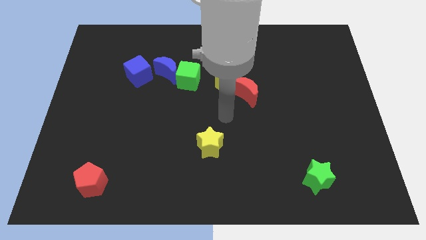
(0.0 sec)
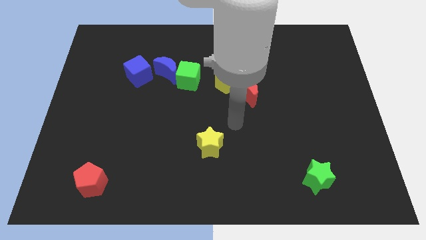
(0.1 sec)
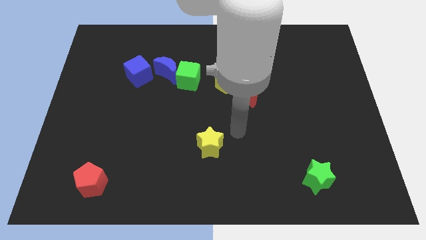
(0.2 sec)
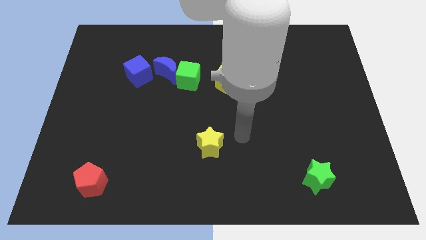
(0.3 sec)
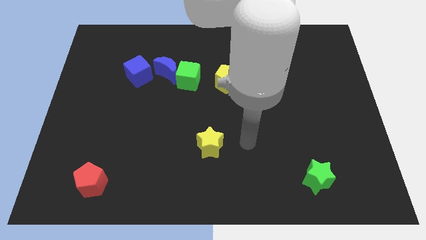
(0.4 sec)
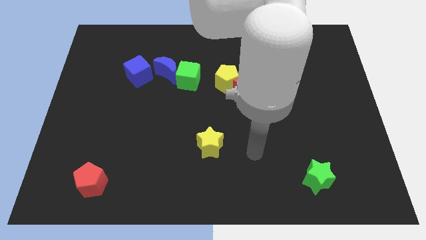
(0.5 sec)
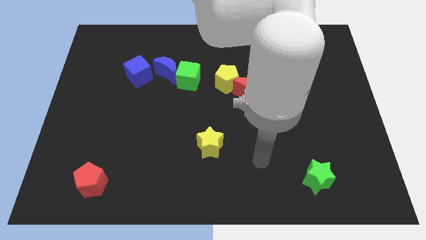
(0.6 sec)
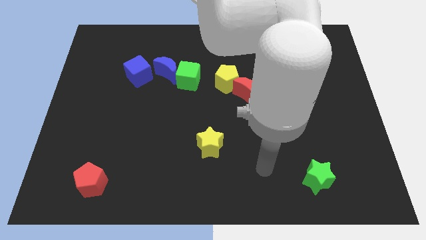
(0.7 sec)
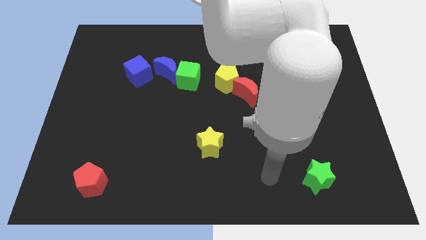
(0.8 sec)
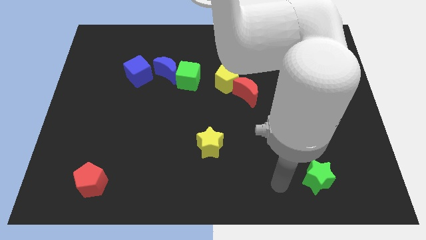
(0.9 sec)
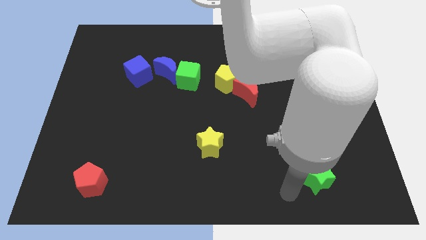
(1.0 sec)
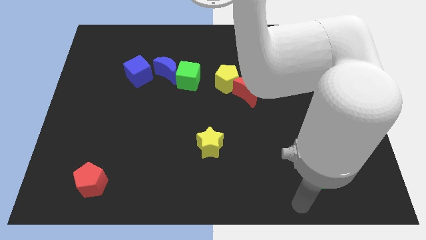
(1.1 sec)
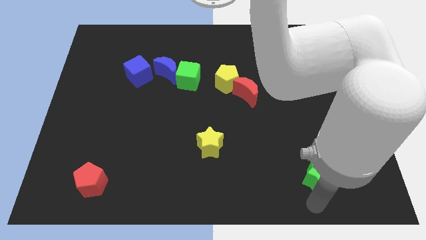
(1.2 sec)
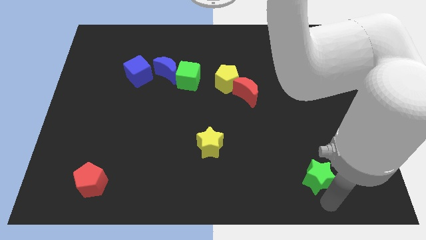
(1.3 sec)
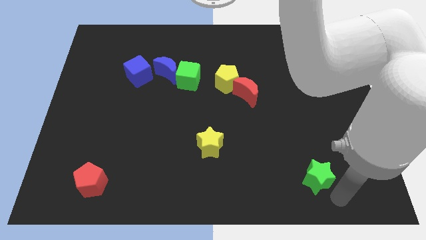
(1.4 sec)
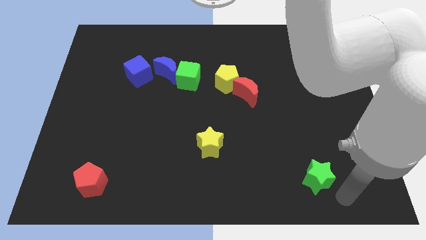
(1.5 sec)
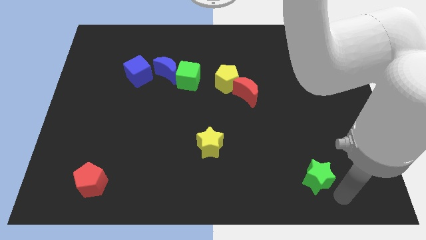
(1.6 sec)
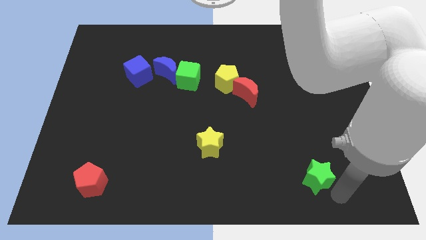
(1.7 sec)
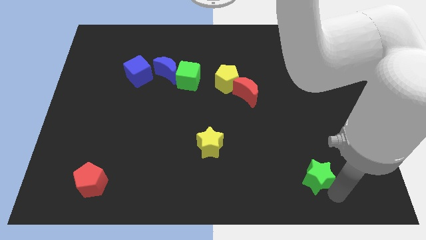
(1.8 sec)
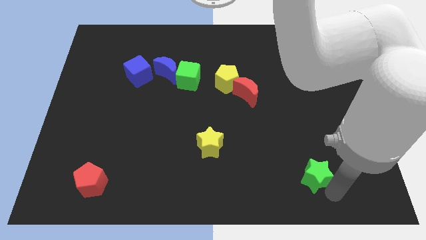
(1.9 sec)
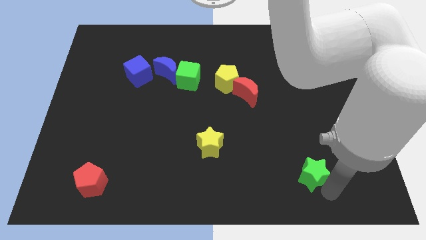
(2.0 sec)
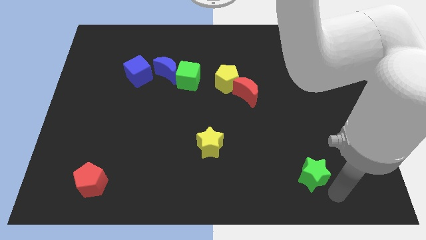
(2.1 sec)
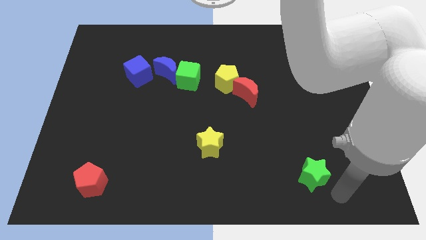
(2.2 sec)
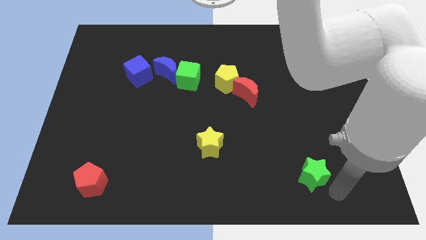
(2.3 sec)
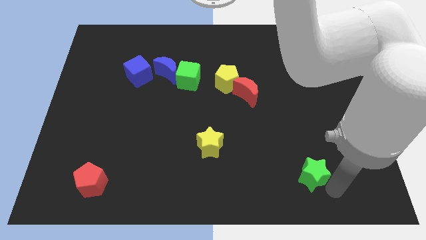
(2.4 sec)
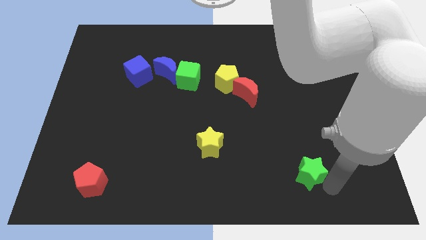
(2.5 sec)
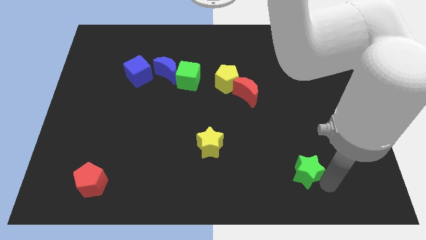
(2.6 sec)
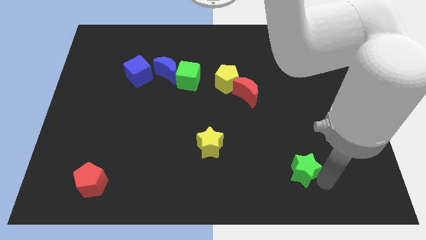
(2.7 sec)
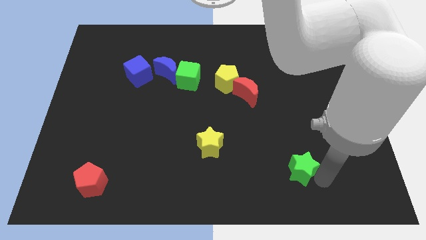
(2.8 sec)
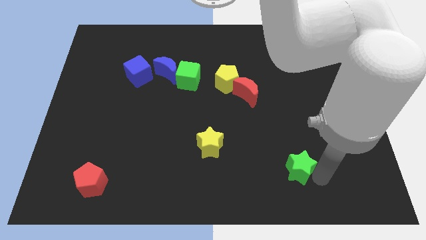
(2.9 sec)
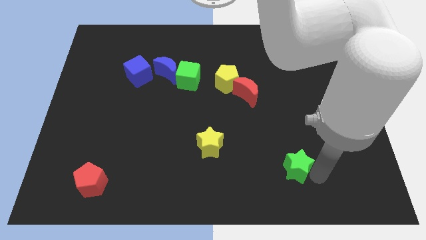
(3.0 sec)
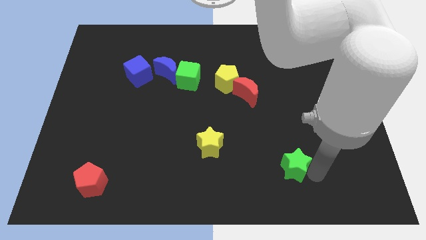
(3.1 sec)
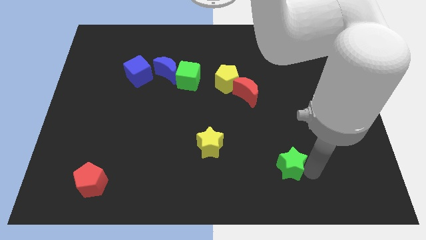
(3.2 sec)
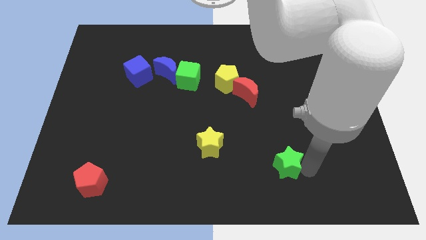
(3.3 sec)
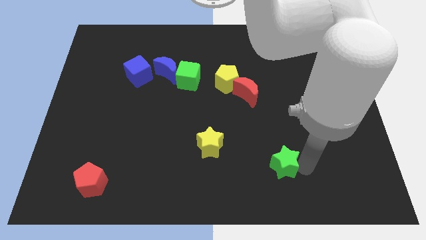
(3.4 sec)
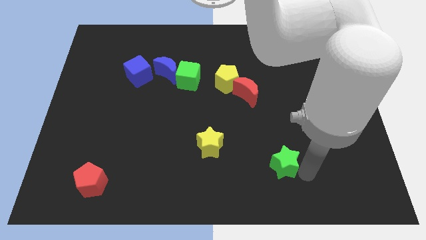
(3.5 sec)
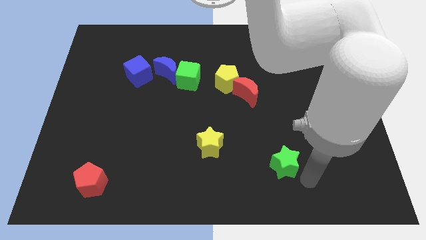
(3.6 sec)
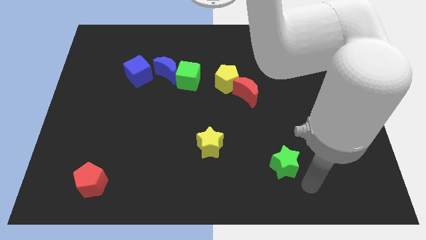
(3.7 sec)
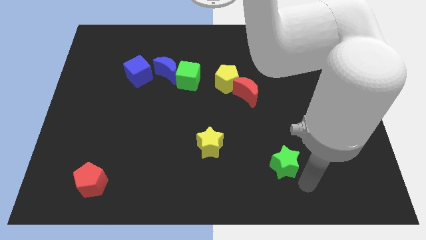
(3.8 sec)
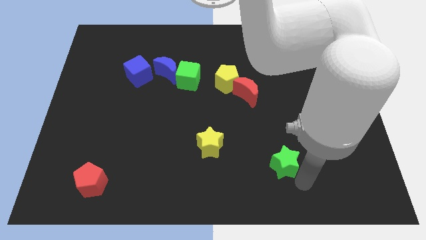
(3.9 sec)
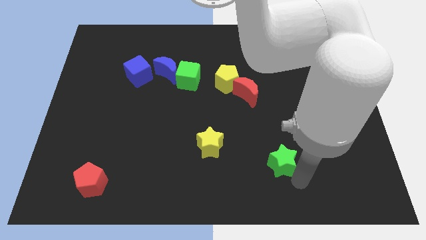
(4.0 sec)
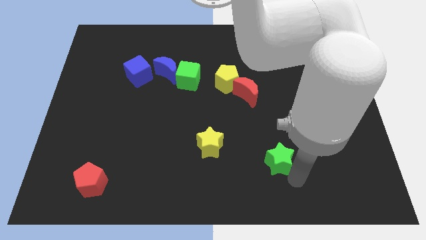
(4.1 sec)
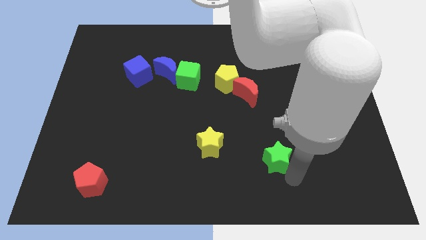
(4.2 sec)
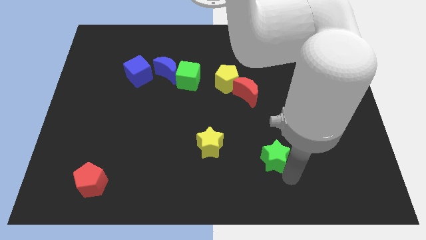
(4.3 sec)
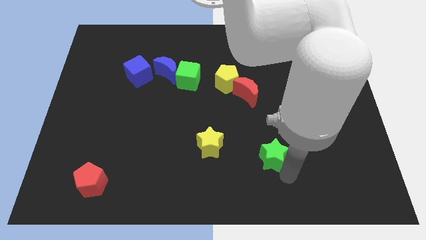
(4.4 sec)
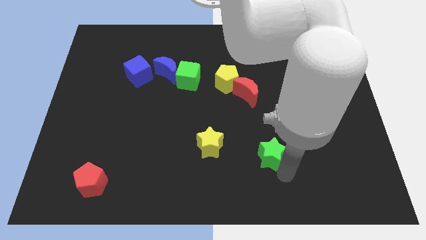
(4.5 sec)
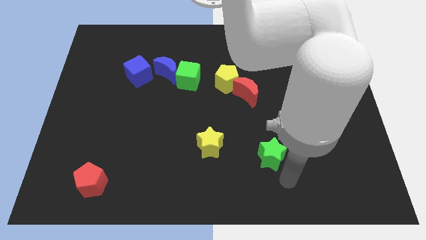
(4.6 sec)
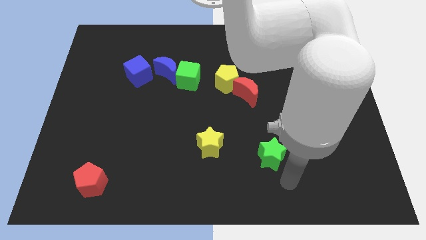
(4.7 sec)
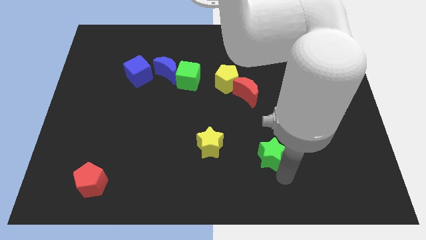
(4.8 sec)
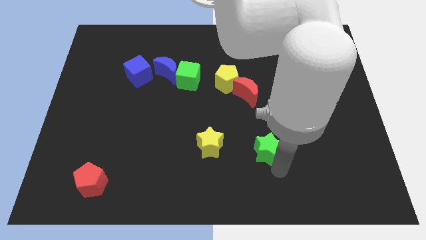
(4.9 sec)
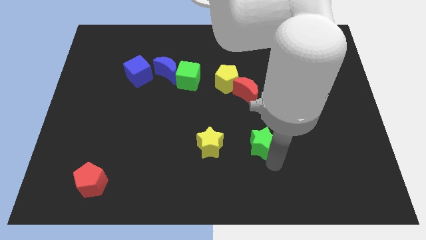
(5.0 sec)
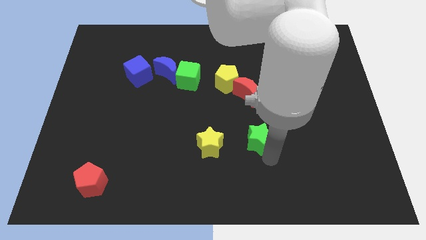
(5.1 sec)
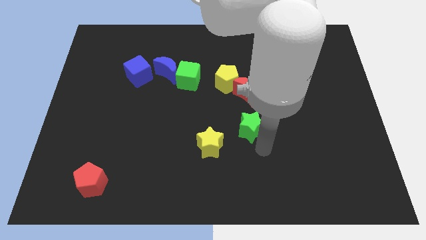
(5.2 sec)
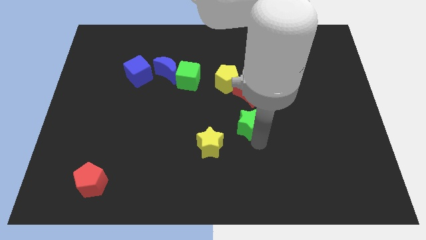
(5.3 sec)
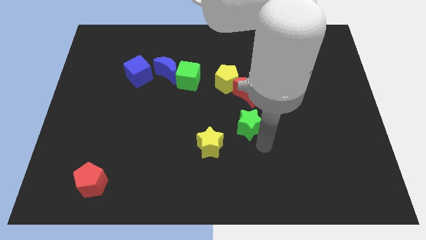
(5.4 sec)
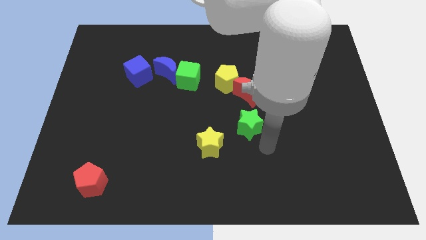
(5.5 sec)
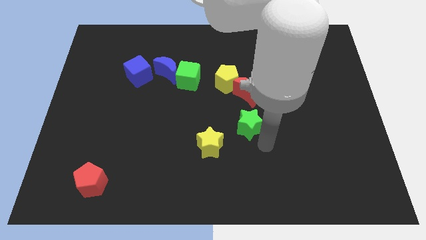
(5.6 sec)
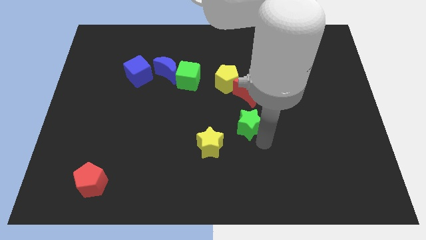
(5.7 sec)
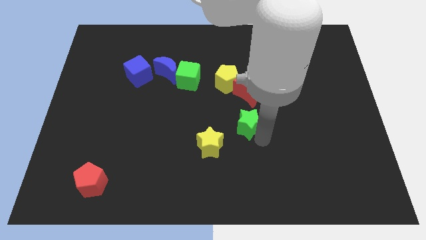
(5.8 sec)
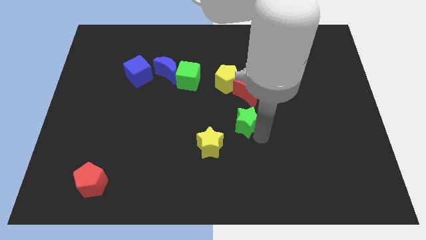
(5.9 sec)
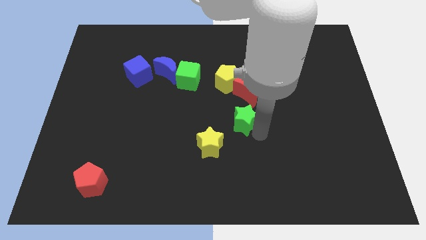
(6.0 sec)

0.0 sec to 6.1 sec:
push the green star up and then to the left

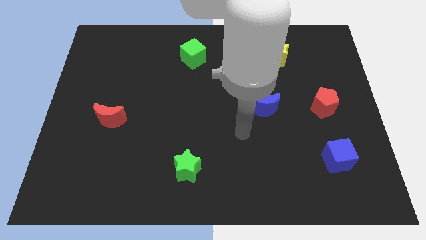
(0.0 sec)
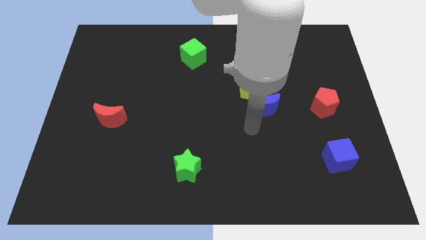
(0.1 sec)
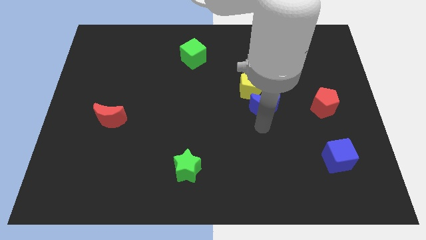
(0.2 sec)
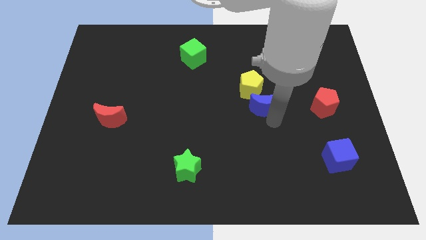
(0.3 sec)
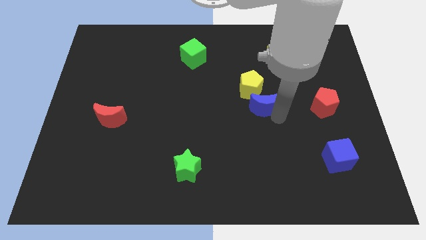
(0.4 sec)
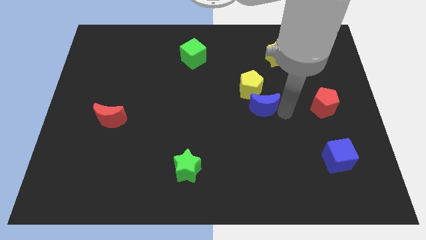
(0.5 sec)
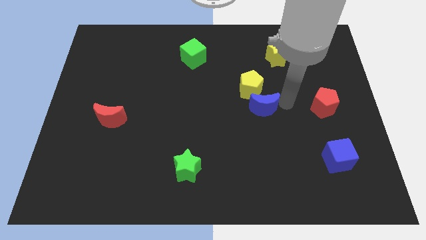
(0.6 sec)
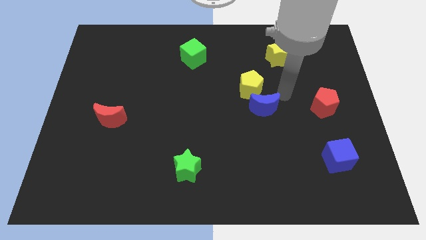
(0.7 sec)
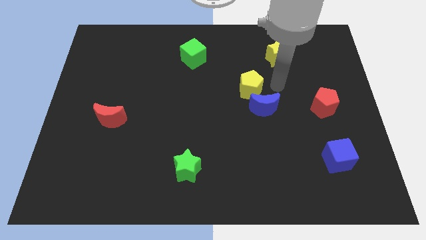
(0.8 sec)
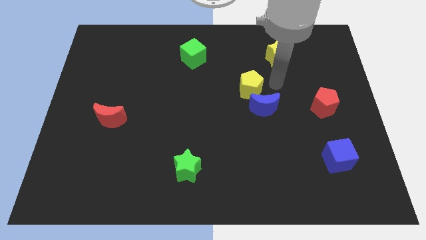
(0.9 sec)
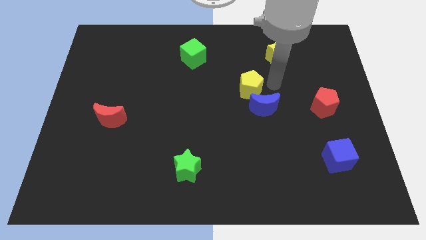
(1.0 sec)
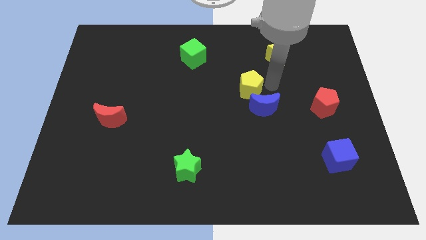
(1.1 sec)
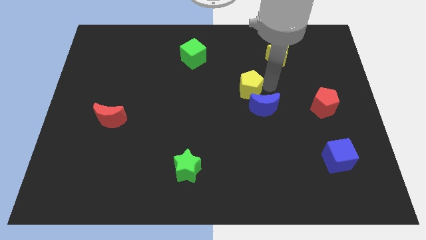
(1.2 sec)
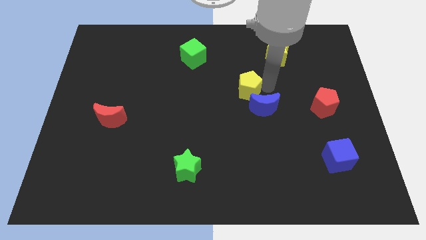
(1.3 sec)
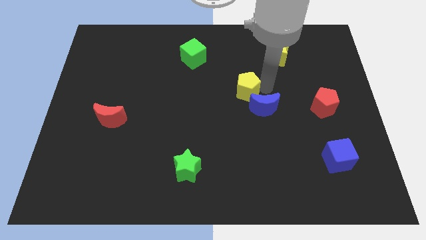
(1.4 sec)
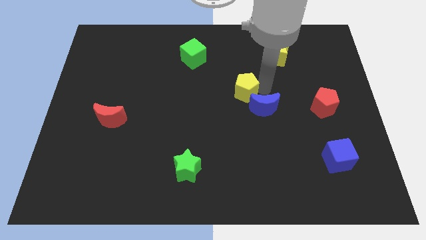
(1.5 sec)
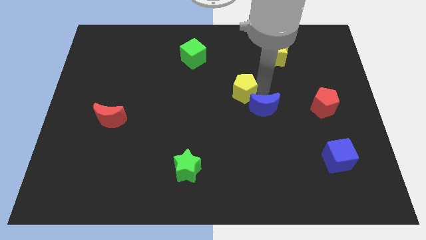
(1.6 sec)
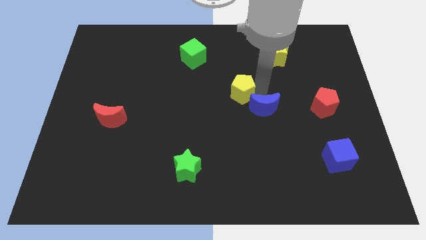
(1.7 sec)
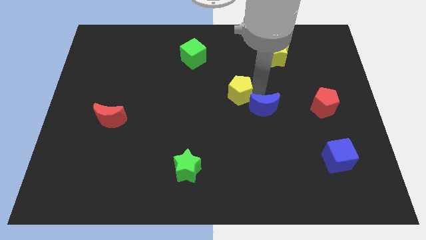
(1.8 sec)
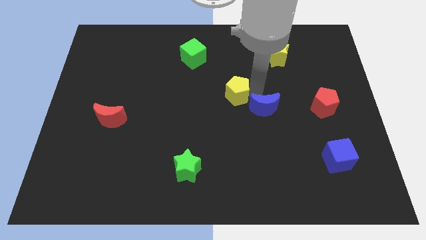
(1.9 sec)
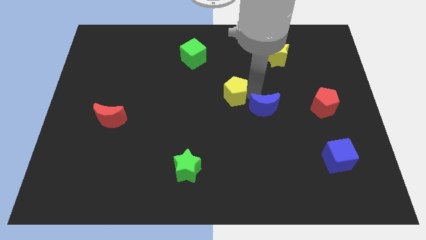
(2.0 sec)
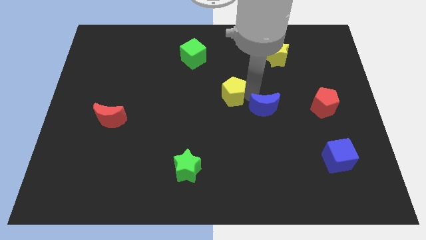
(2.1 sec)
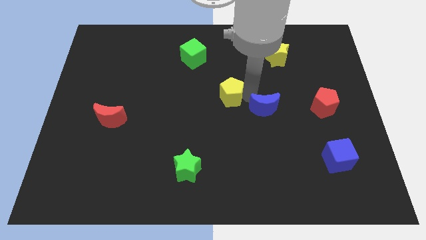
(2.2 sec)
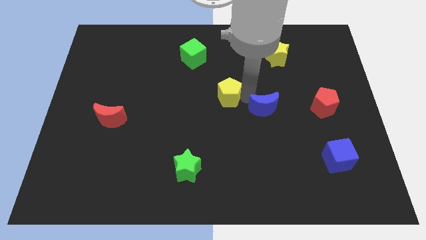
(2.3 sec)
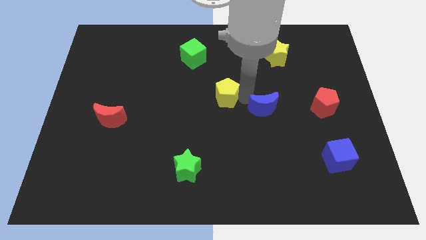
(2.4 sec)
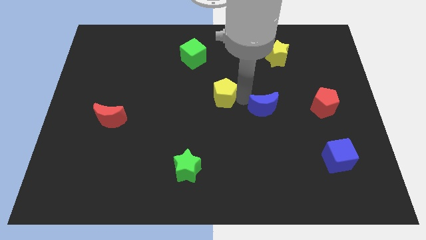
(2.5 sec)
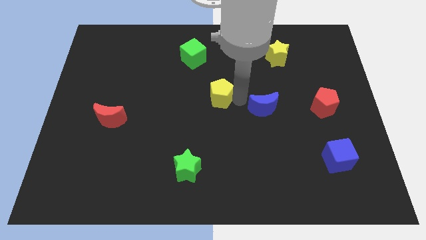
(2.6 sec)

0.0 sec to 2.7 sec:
slightly push the yellow pentagon left
